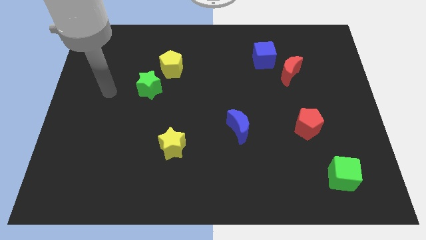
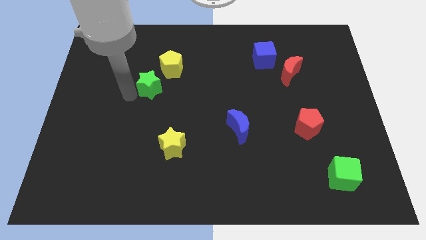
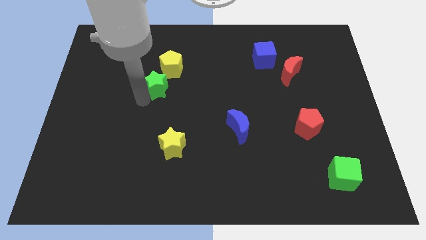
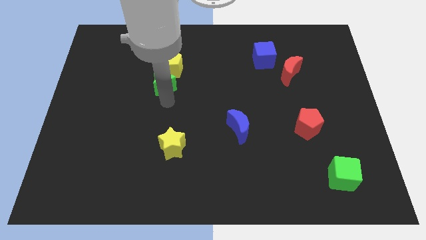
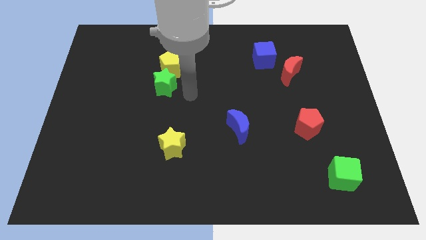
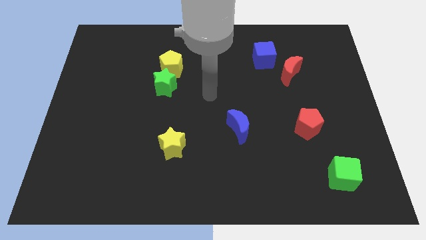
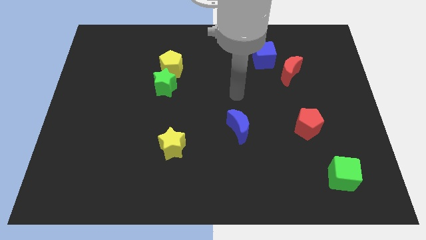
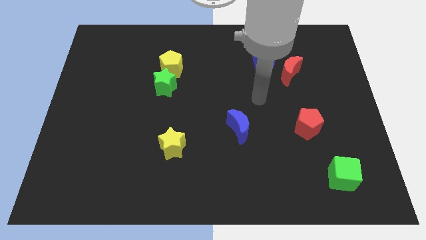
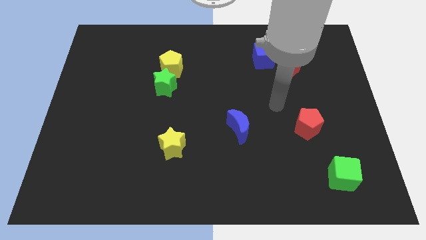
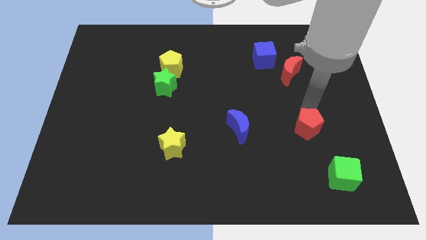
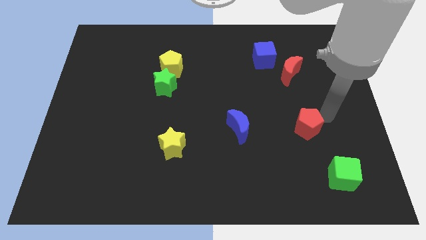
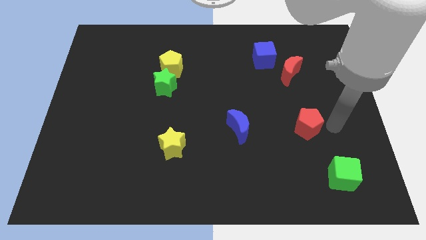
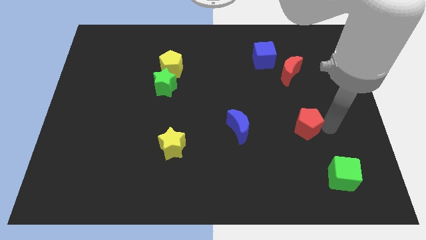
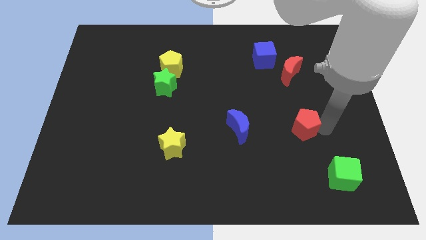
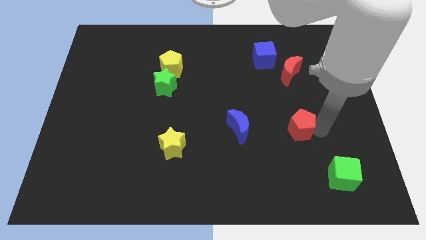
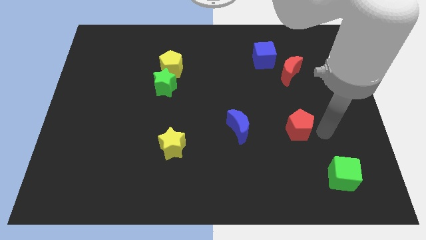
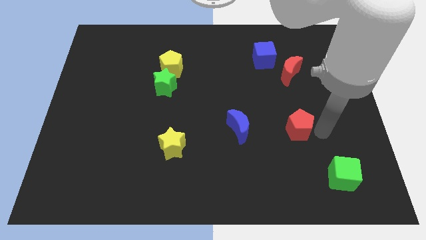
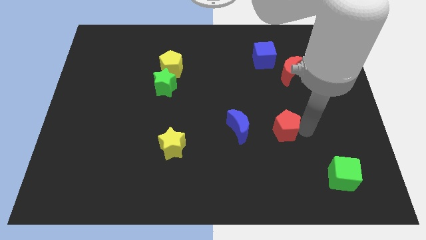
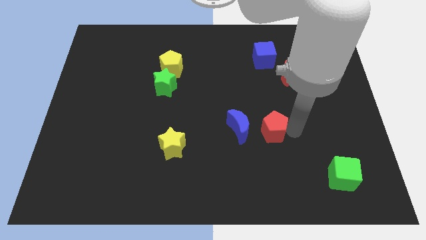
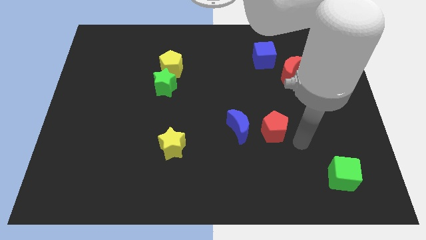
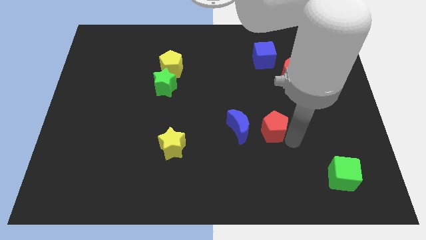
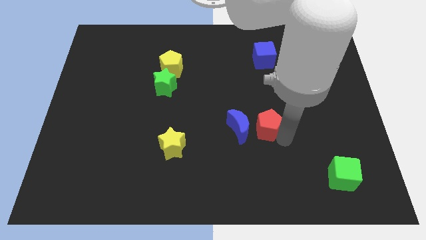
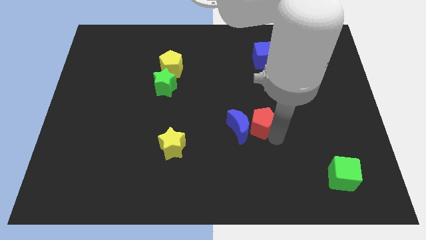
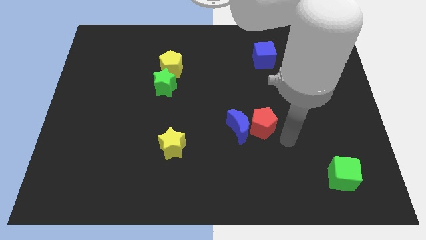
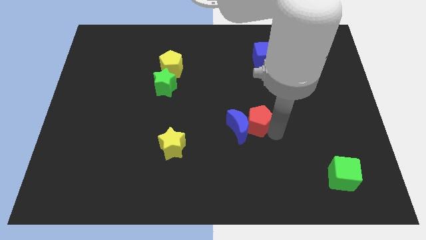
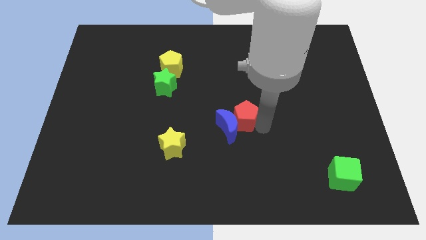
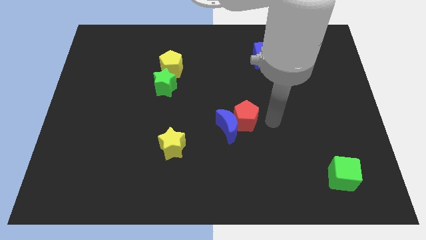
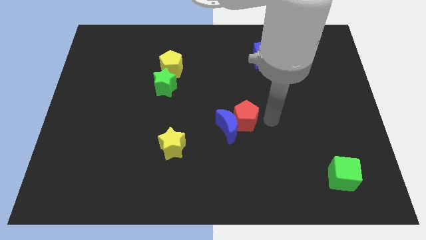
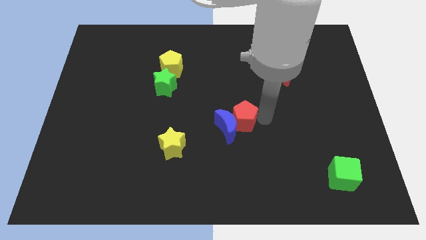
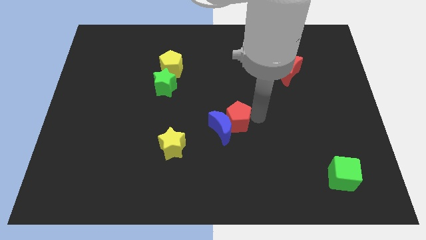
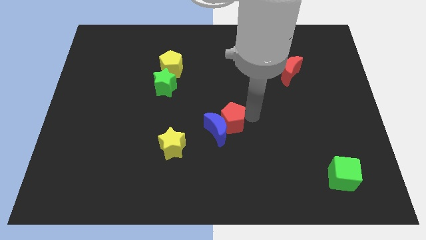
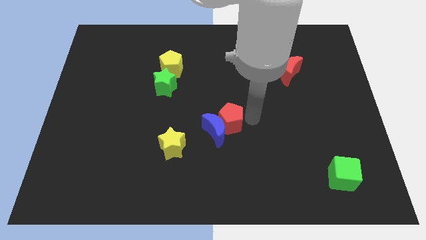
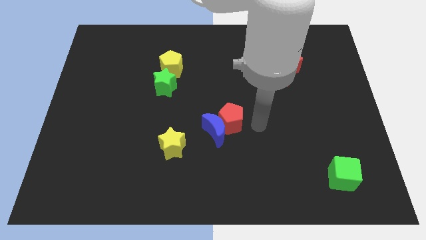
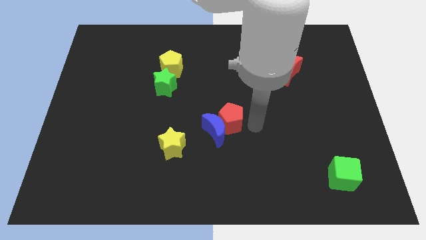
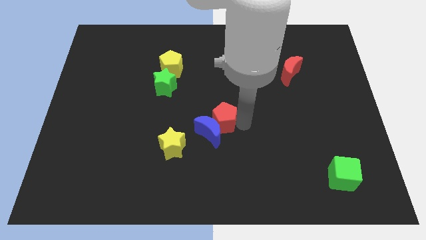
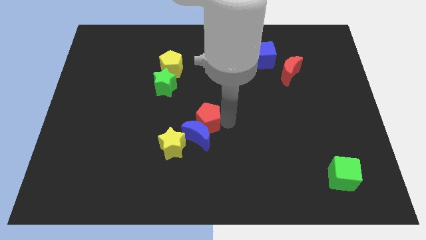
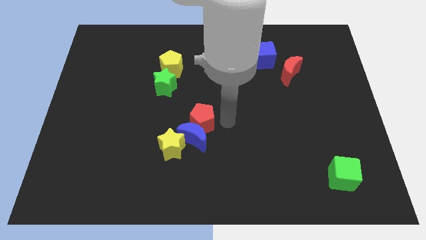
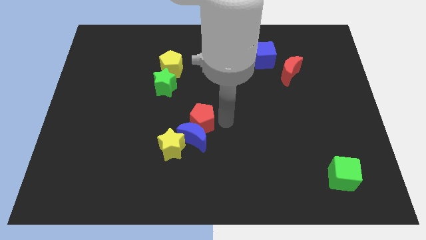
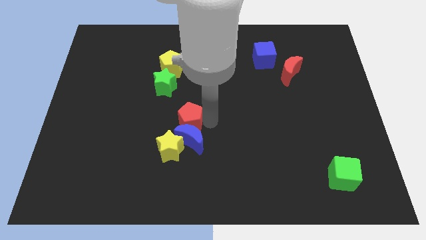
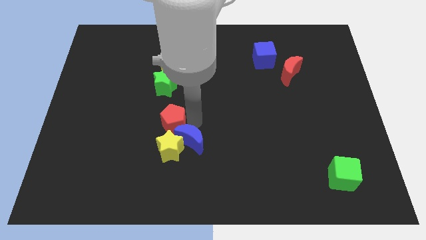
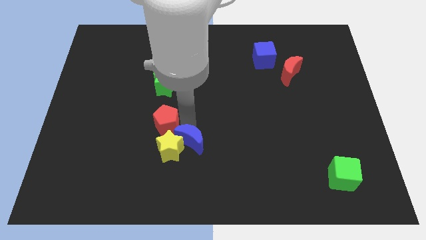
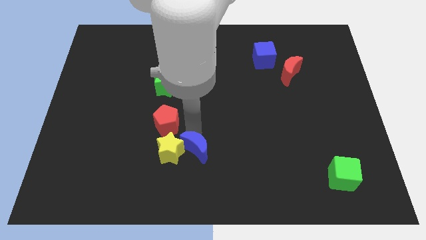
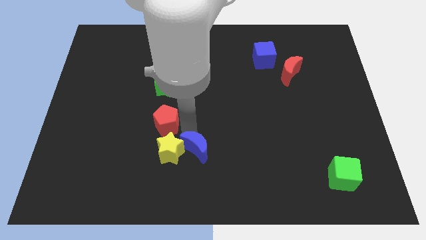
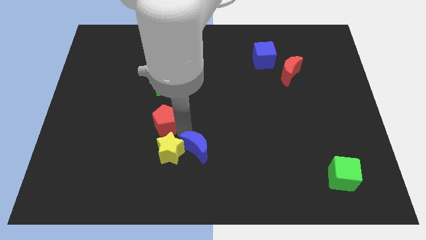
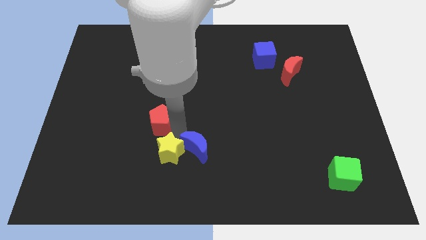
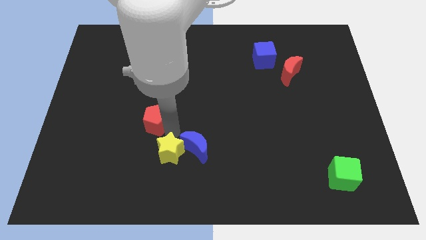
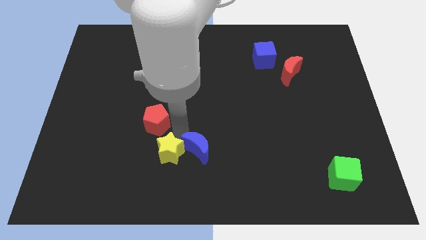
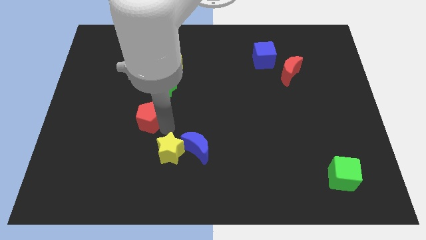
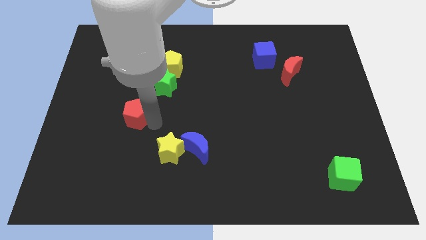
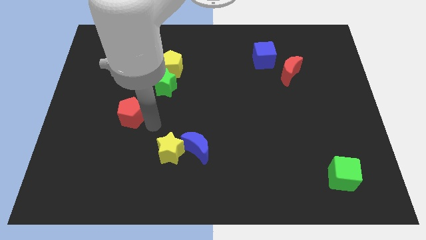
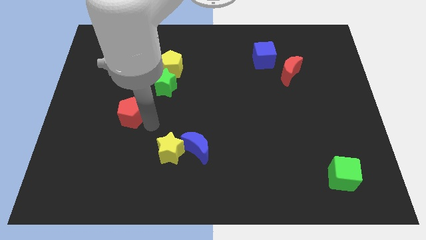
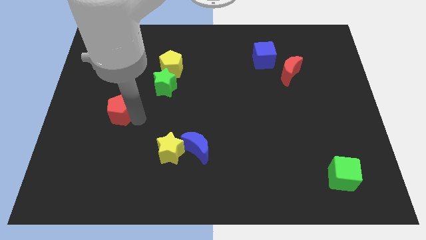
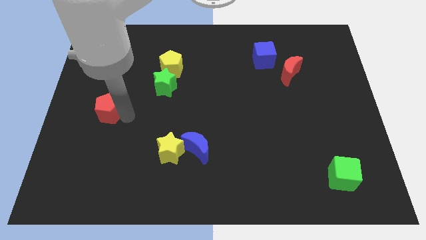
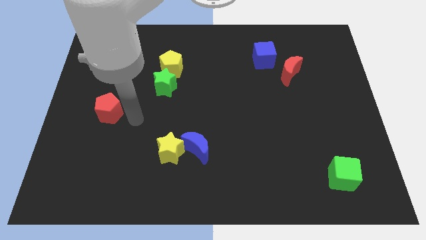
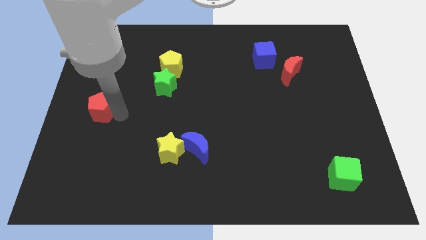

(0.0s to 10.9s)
push the red pentagon to the left side

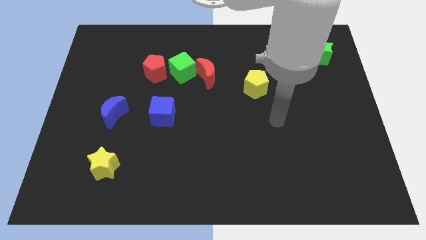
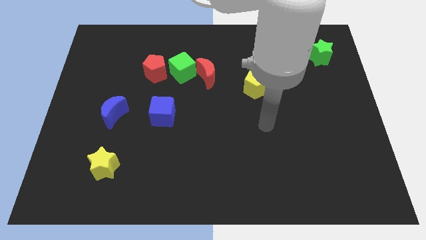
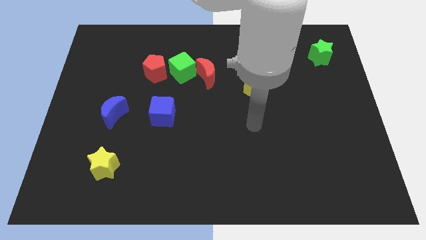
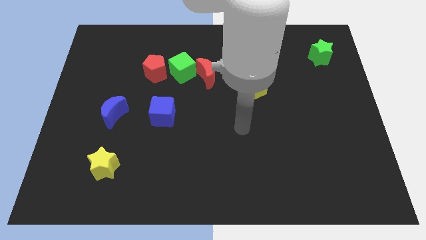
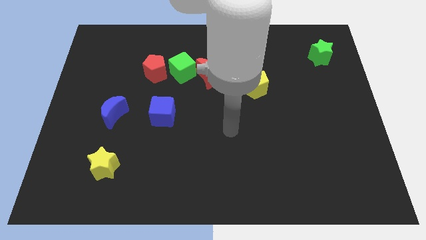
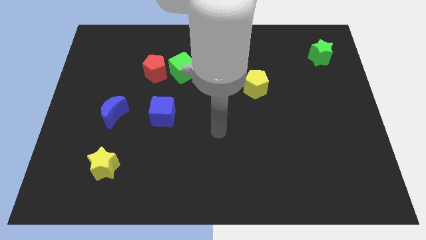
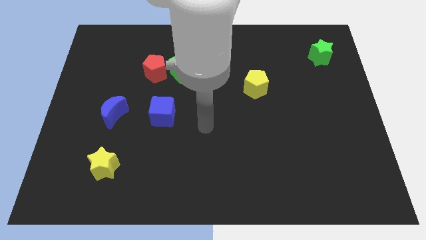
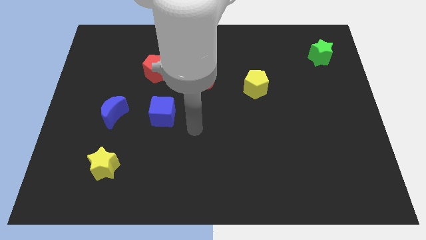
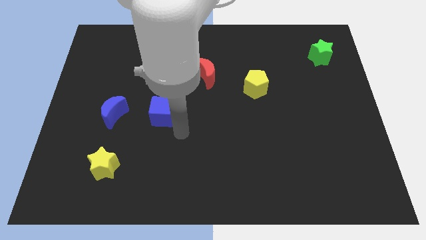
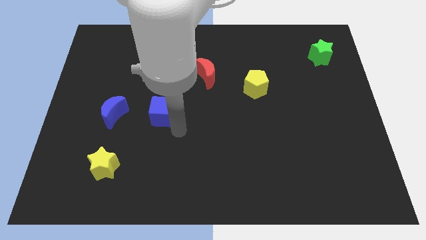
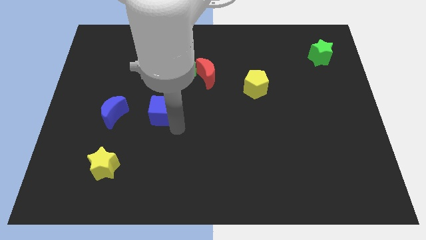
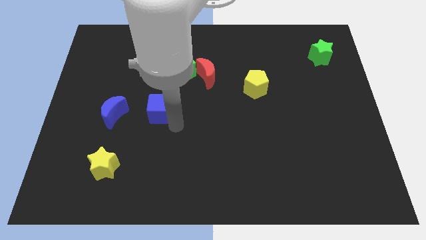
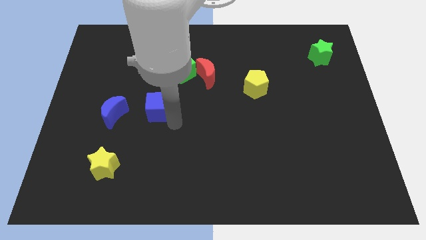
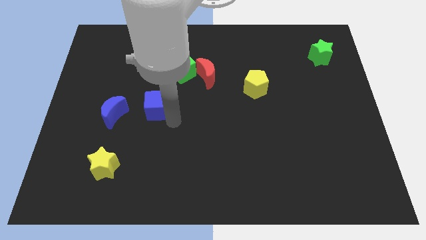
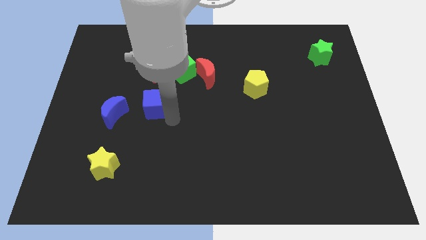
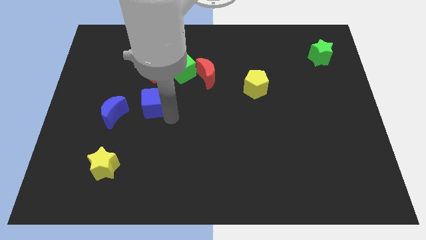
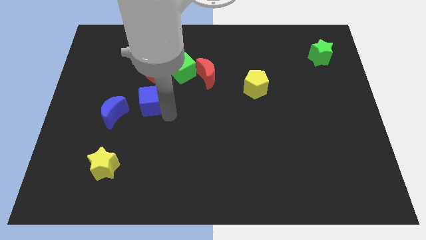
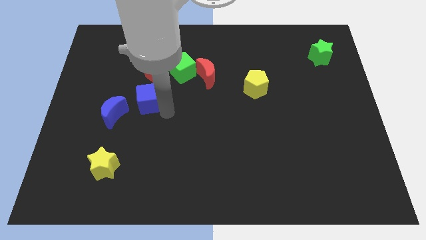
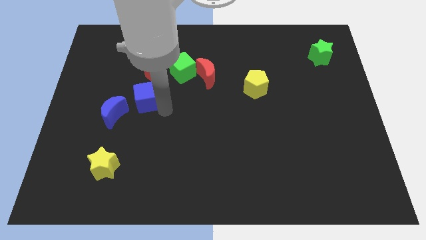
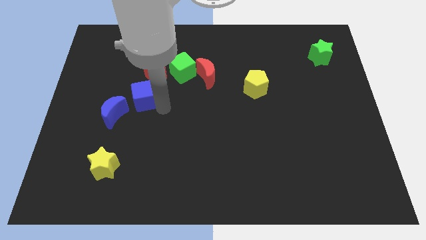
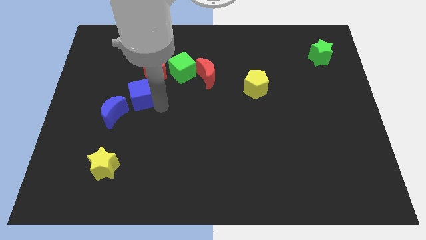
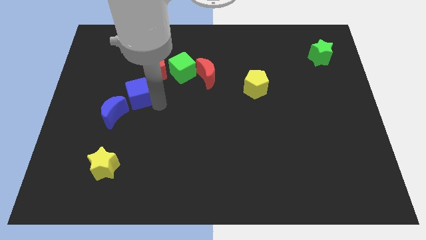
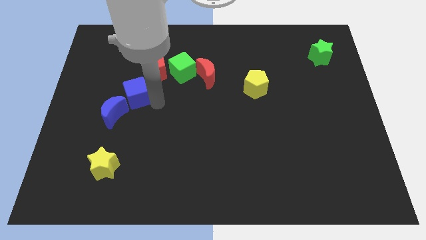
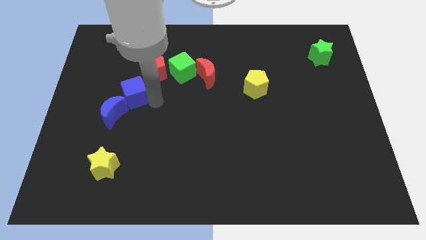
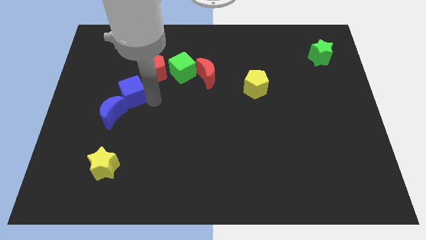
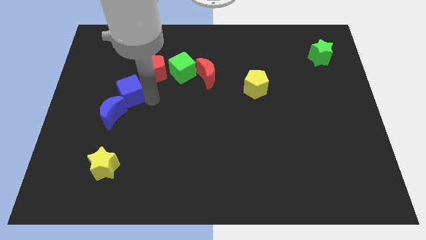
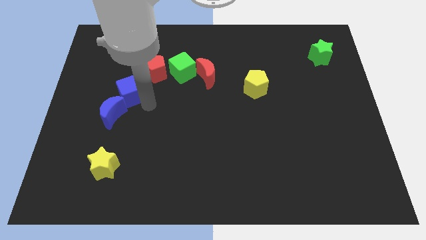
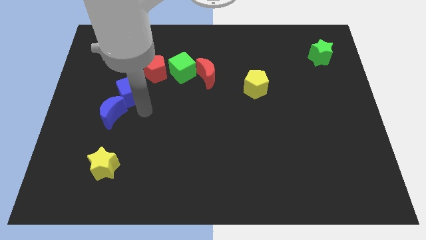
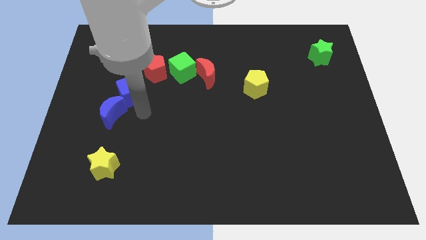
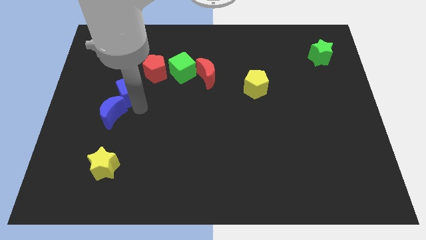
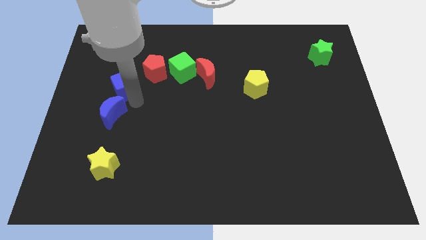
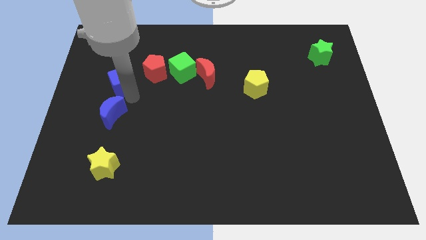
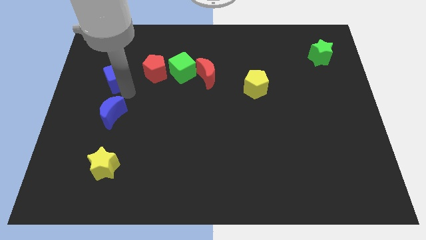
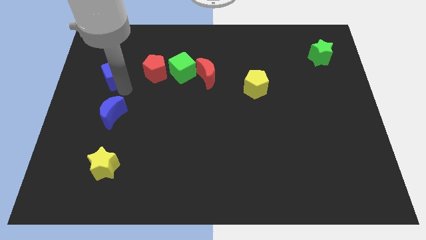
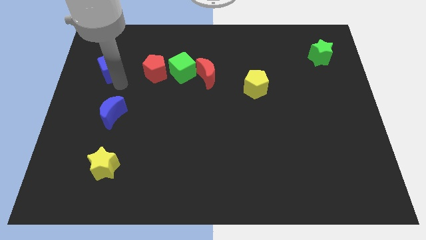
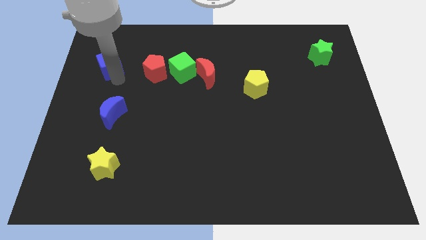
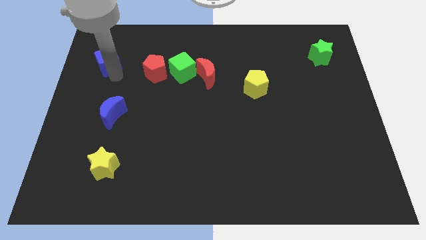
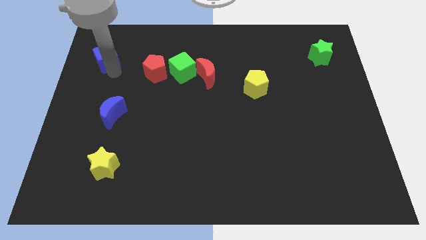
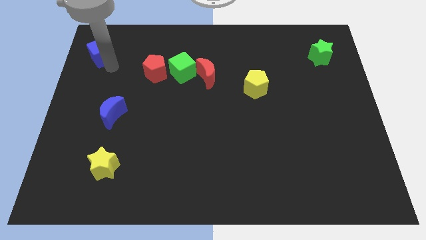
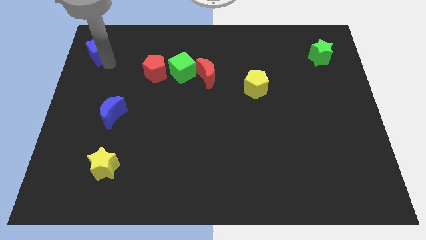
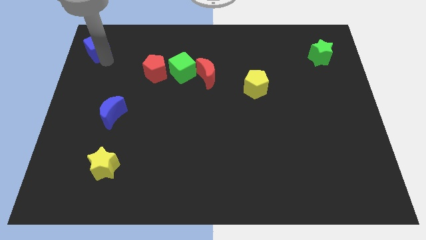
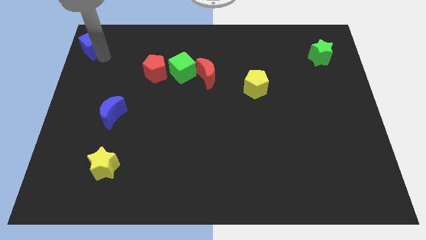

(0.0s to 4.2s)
move the blue cube to the top left
